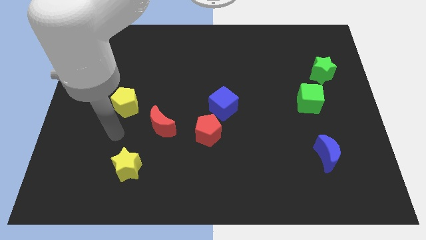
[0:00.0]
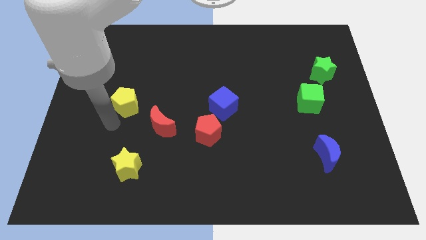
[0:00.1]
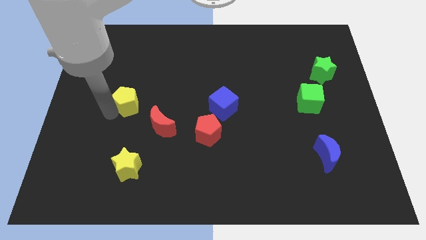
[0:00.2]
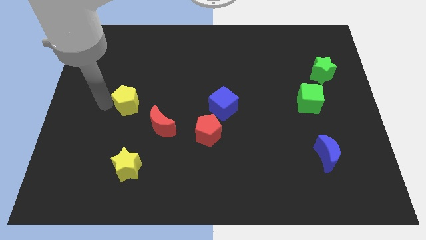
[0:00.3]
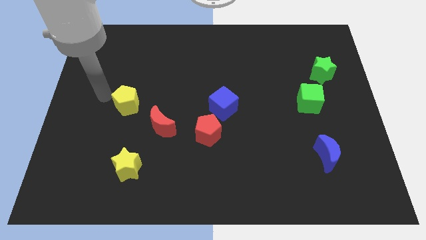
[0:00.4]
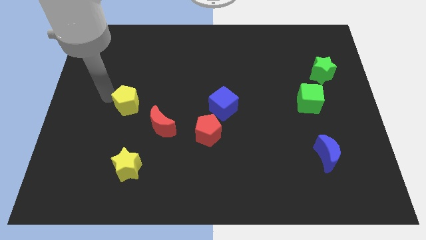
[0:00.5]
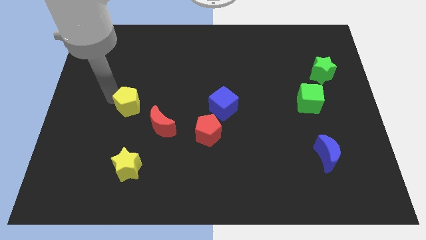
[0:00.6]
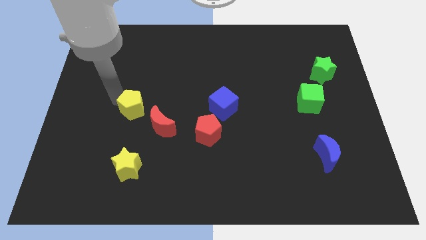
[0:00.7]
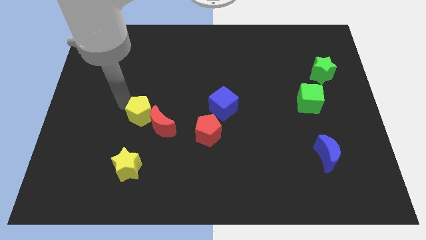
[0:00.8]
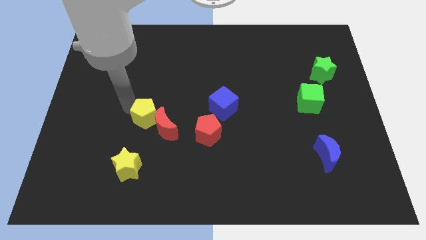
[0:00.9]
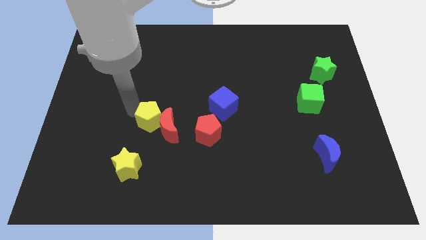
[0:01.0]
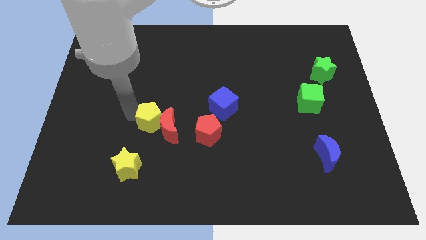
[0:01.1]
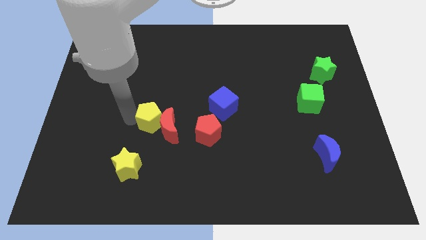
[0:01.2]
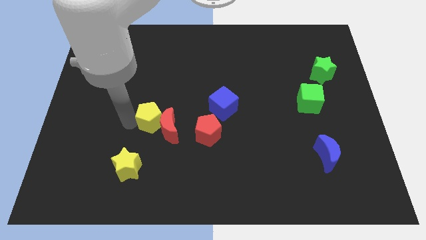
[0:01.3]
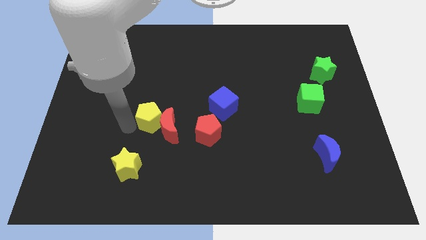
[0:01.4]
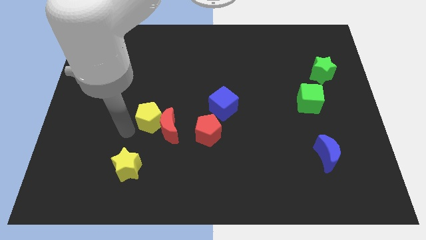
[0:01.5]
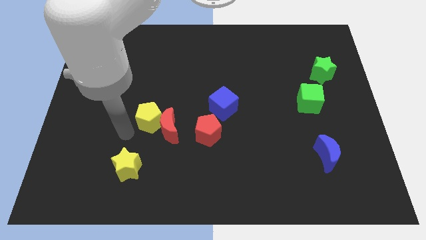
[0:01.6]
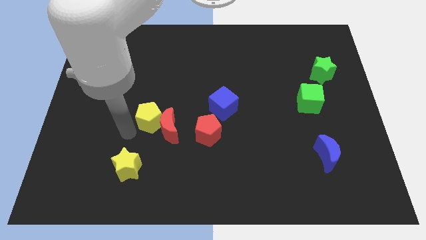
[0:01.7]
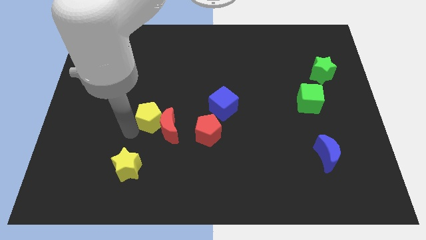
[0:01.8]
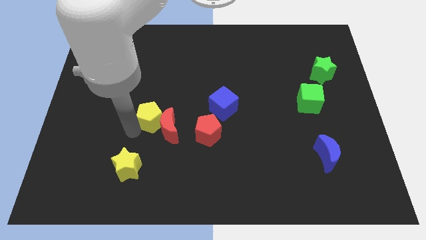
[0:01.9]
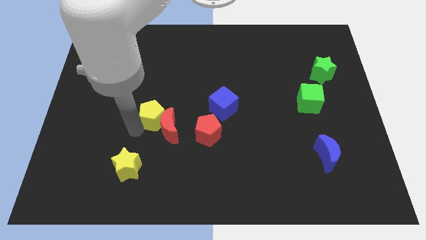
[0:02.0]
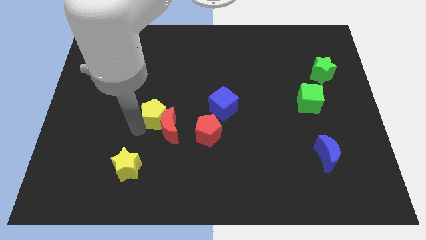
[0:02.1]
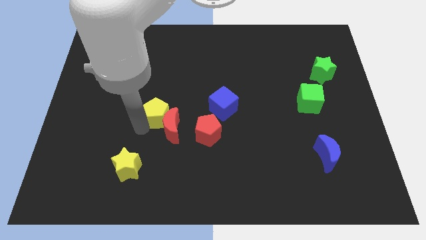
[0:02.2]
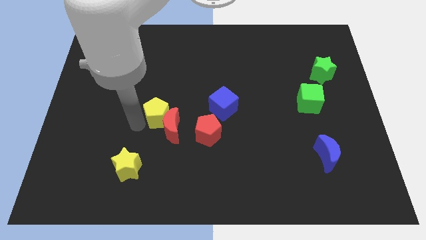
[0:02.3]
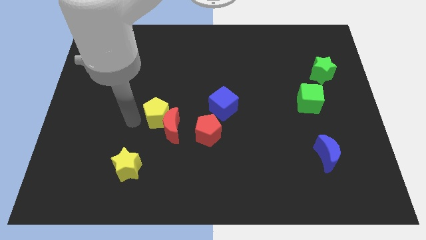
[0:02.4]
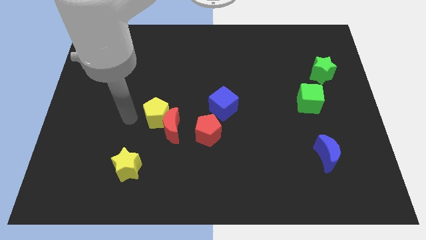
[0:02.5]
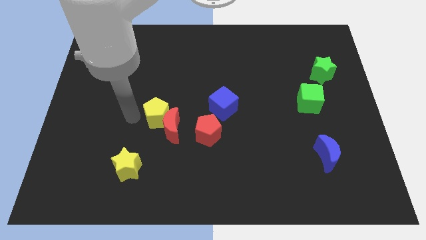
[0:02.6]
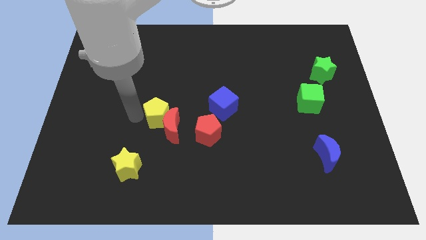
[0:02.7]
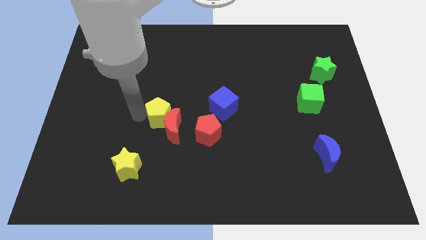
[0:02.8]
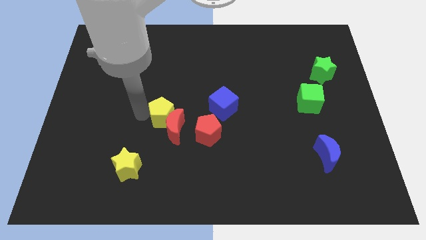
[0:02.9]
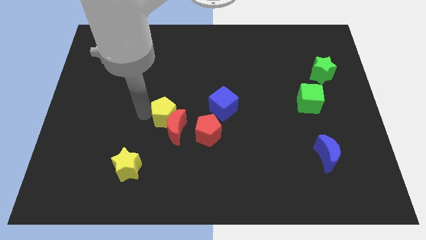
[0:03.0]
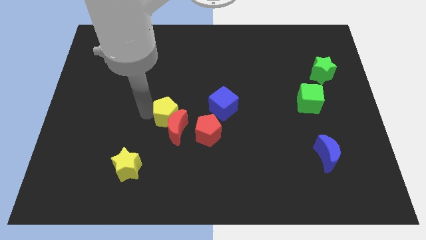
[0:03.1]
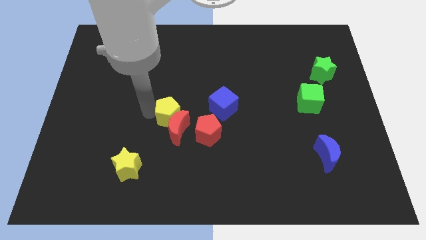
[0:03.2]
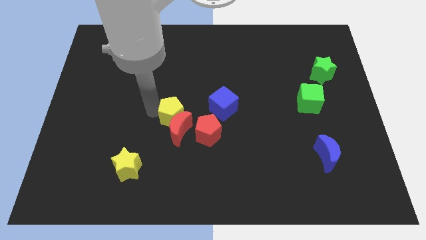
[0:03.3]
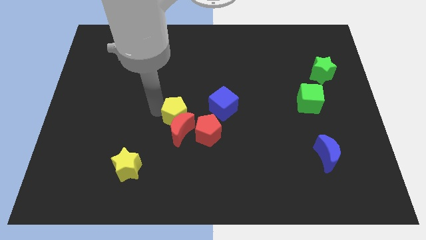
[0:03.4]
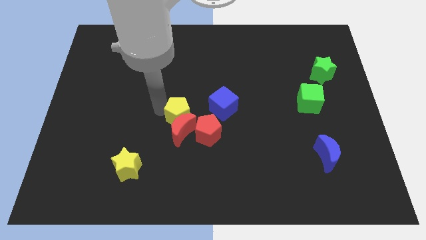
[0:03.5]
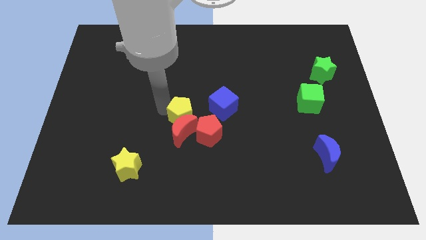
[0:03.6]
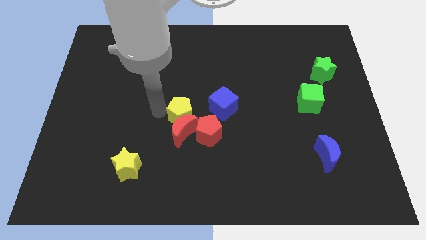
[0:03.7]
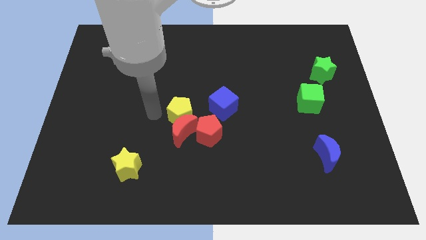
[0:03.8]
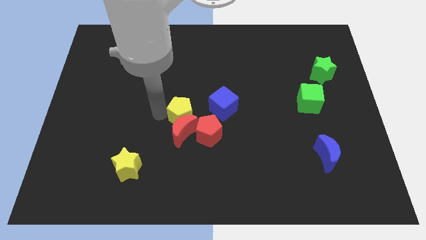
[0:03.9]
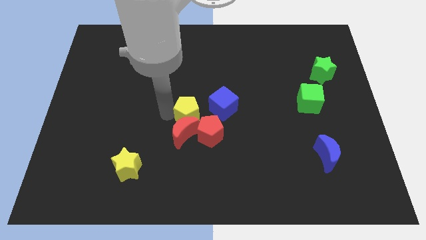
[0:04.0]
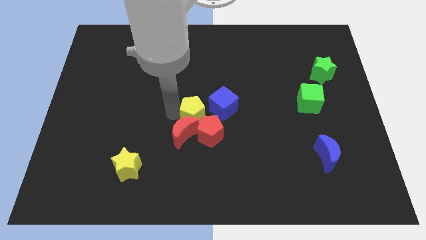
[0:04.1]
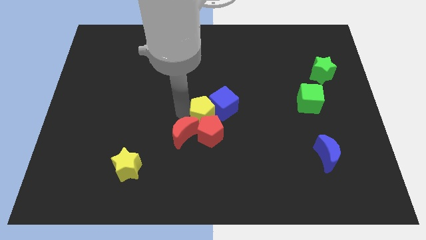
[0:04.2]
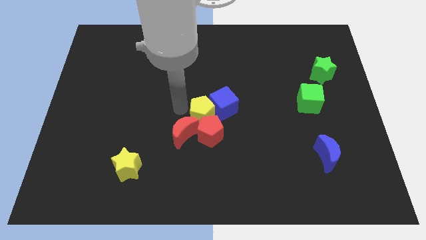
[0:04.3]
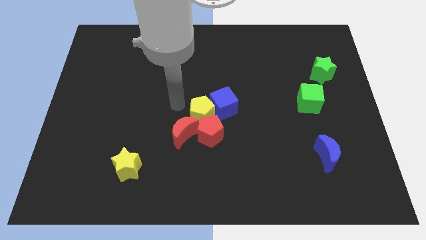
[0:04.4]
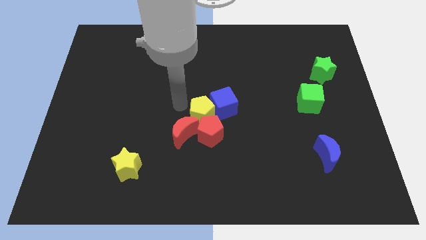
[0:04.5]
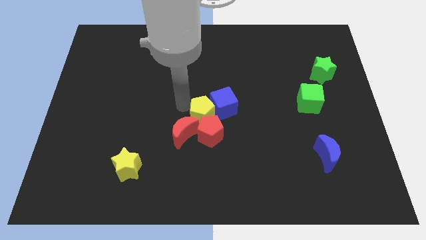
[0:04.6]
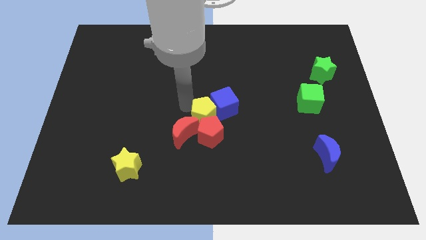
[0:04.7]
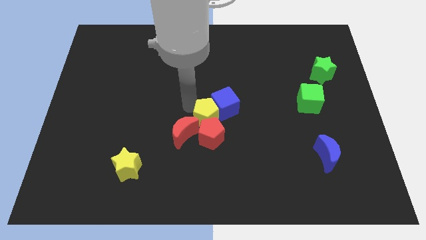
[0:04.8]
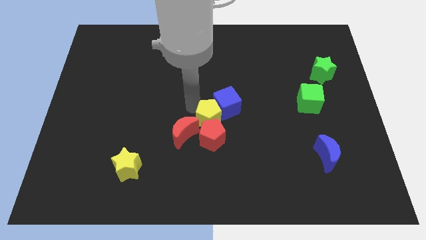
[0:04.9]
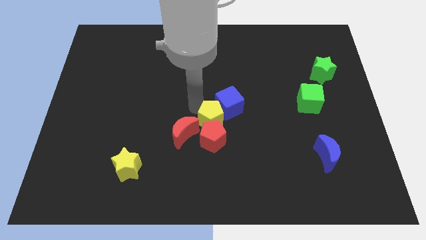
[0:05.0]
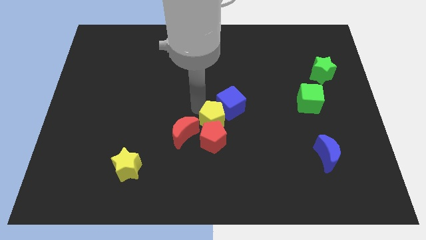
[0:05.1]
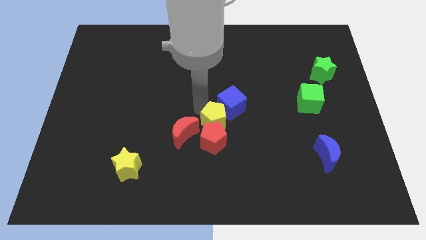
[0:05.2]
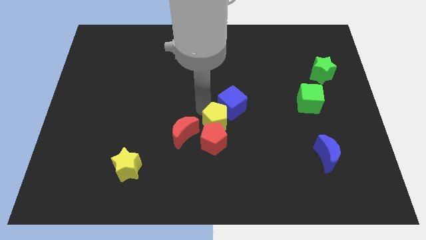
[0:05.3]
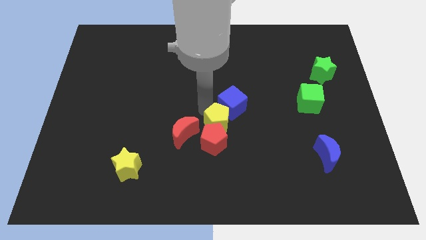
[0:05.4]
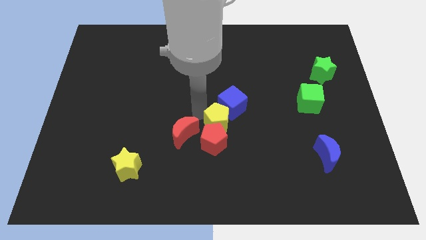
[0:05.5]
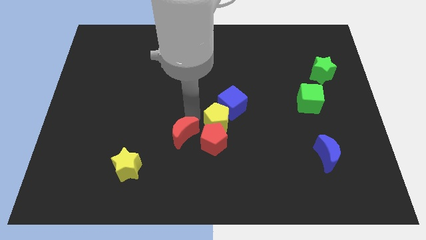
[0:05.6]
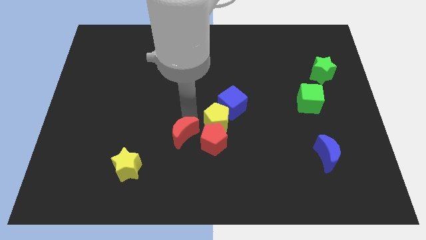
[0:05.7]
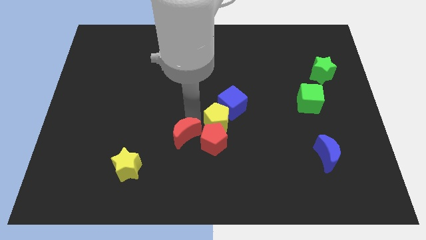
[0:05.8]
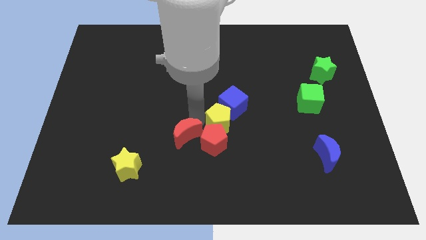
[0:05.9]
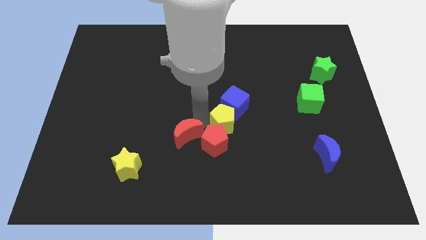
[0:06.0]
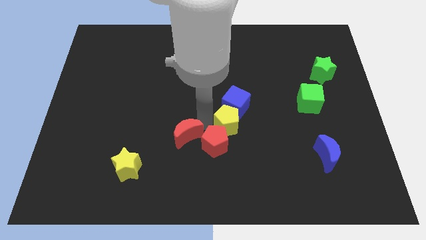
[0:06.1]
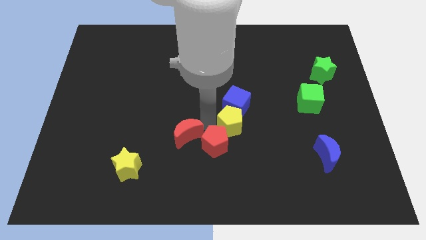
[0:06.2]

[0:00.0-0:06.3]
put the yellow pentagon diagonally down and to the right of the blue cube

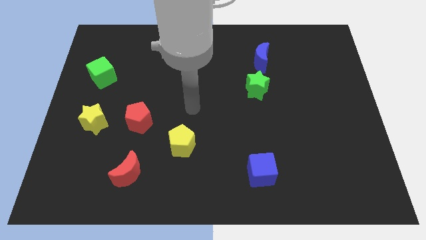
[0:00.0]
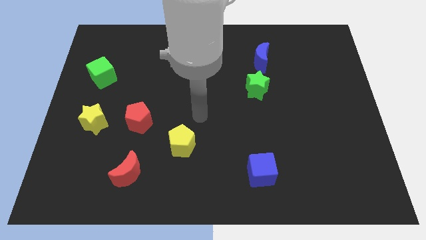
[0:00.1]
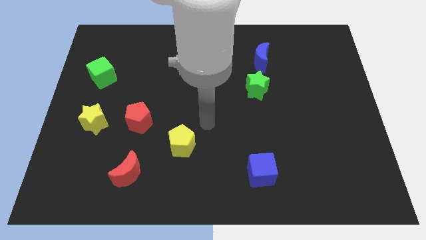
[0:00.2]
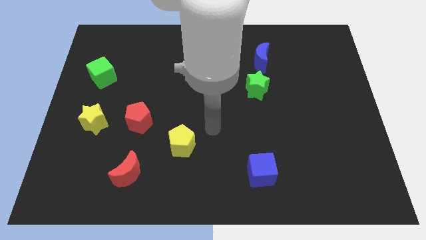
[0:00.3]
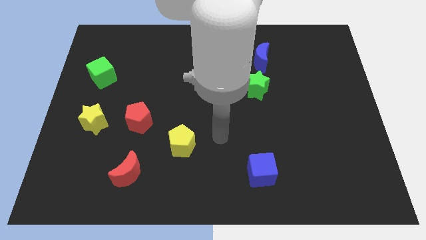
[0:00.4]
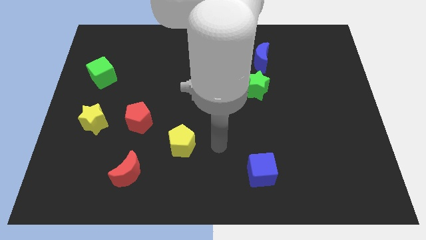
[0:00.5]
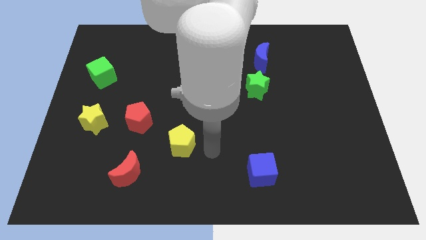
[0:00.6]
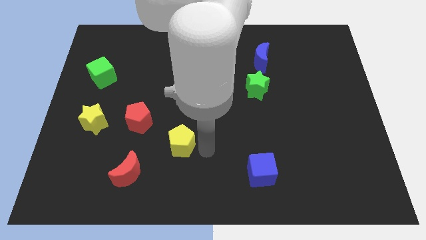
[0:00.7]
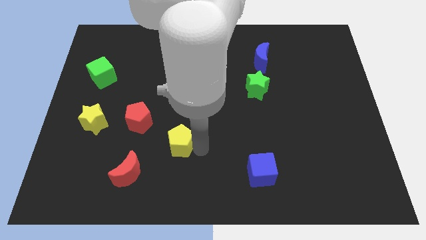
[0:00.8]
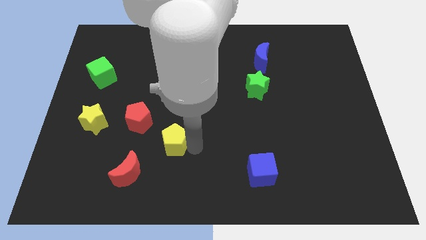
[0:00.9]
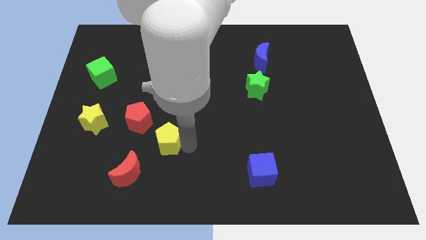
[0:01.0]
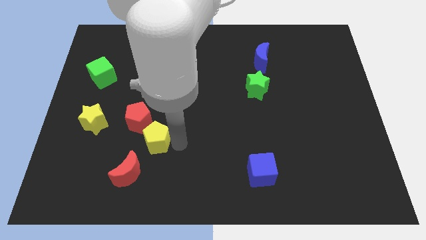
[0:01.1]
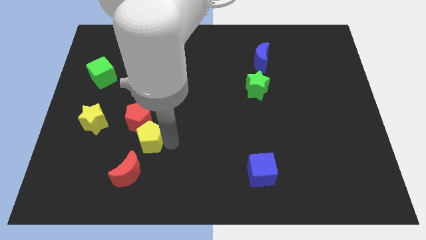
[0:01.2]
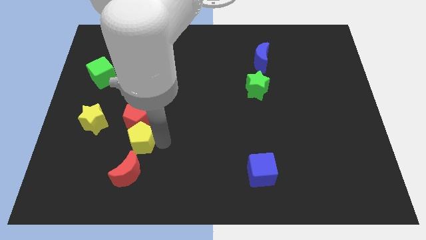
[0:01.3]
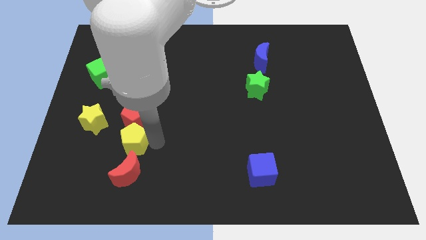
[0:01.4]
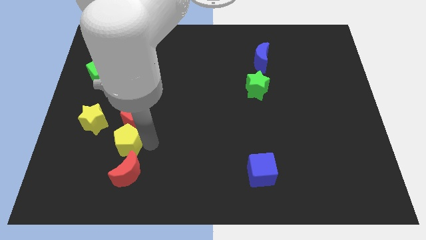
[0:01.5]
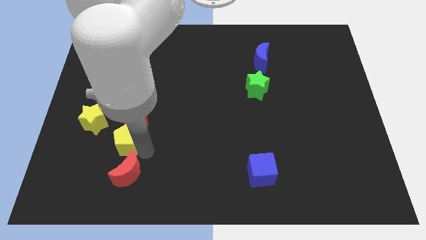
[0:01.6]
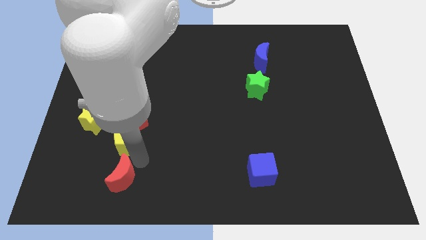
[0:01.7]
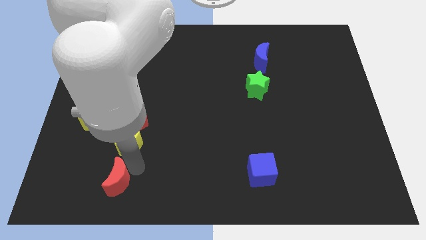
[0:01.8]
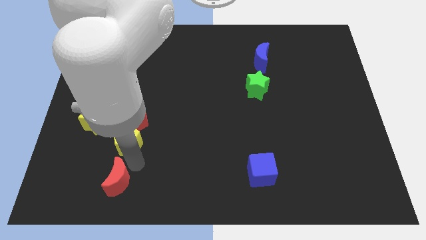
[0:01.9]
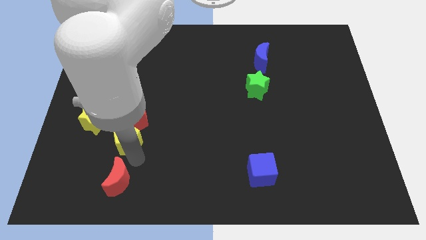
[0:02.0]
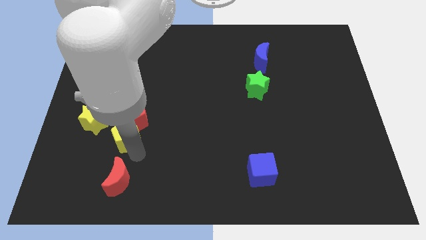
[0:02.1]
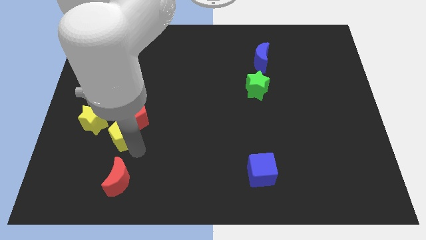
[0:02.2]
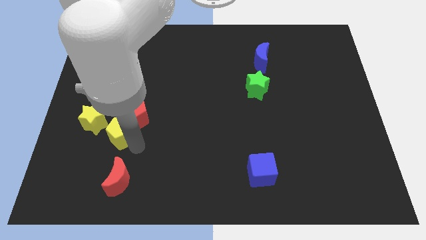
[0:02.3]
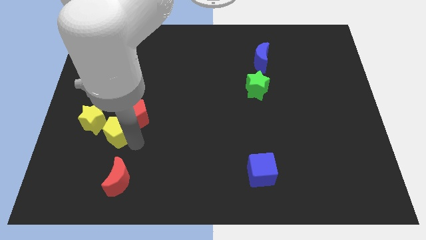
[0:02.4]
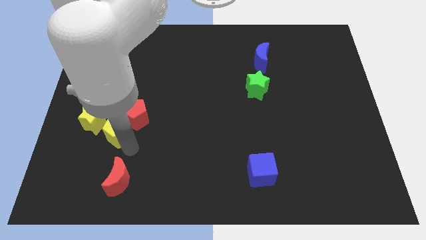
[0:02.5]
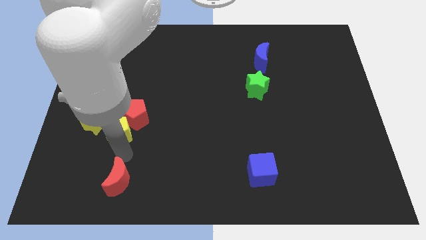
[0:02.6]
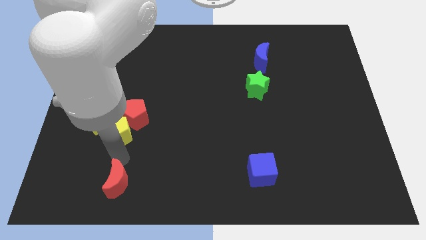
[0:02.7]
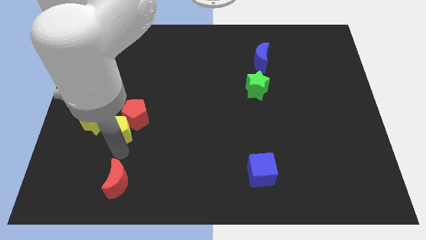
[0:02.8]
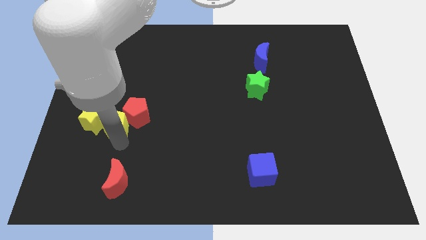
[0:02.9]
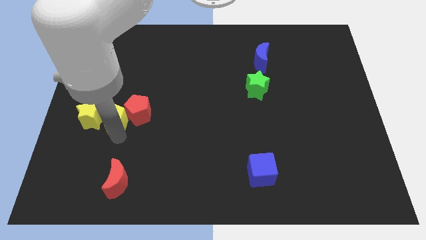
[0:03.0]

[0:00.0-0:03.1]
move the yellow pentagon to the top right side of the yellow star
